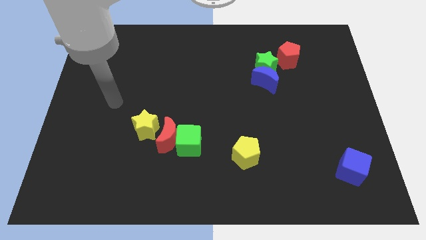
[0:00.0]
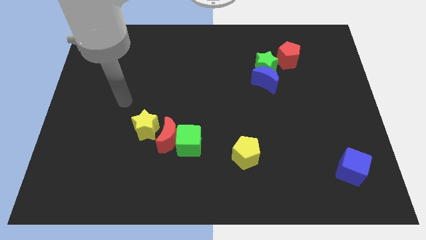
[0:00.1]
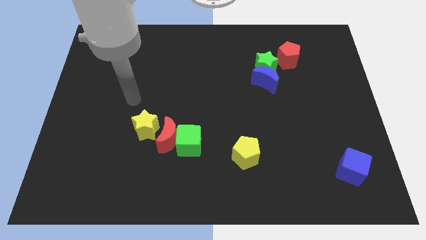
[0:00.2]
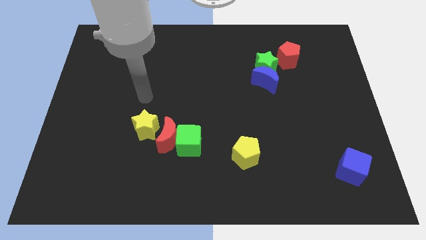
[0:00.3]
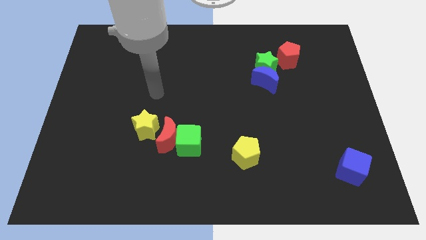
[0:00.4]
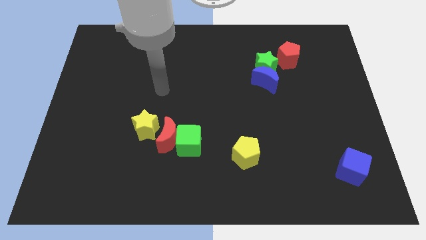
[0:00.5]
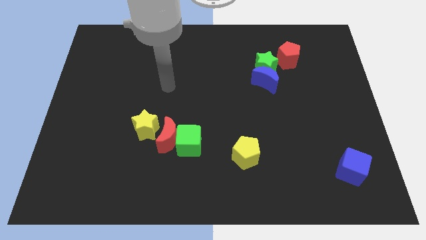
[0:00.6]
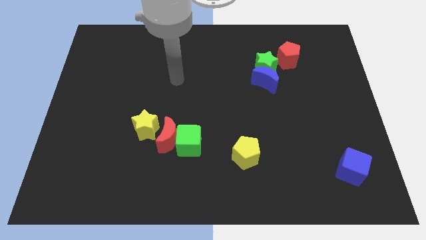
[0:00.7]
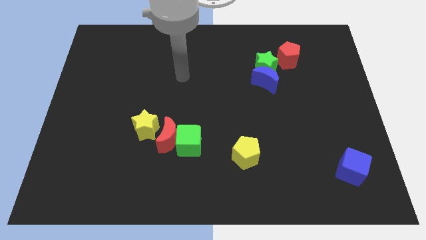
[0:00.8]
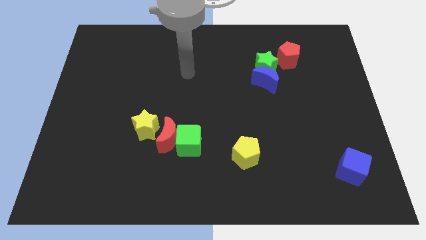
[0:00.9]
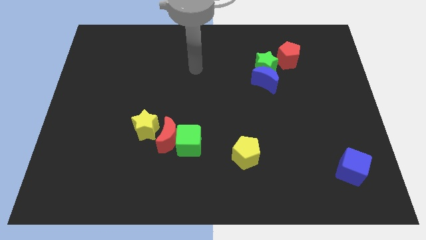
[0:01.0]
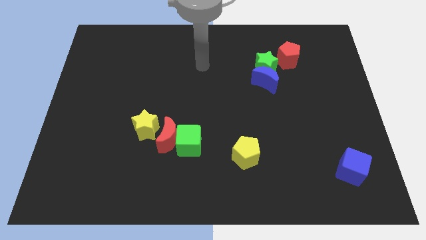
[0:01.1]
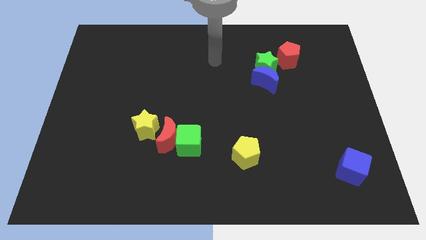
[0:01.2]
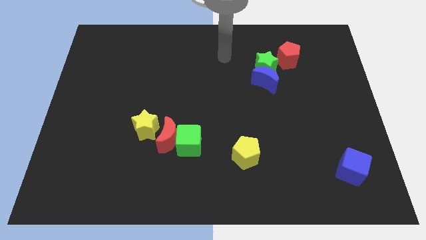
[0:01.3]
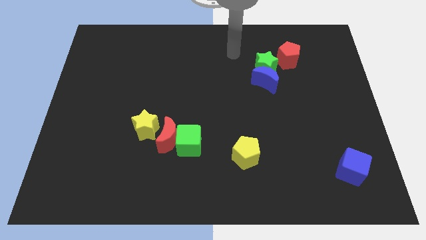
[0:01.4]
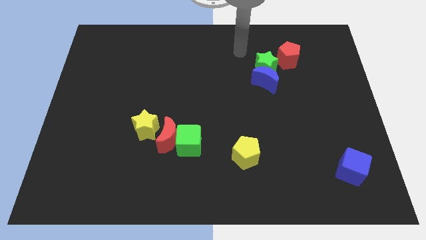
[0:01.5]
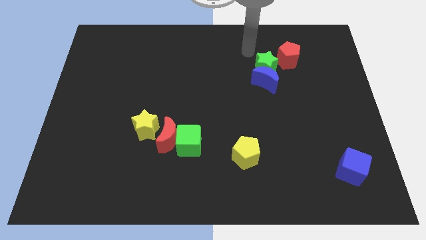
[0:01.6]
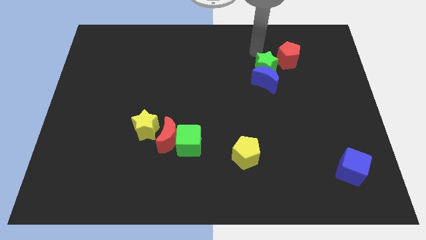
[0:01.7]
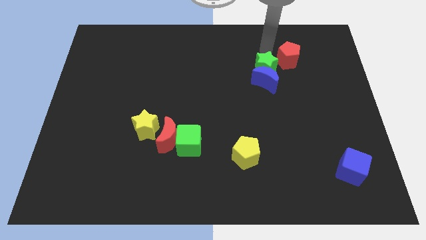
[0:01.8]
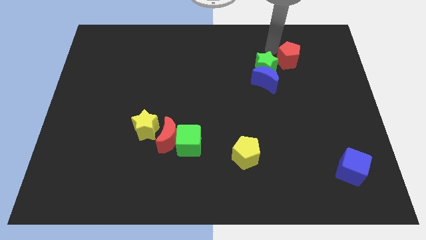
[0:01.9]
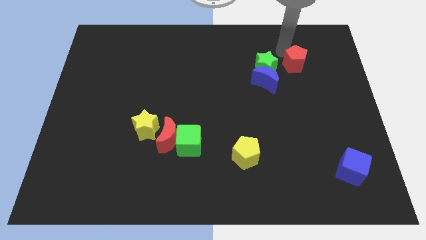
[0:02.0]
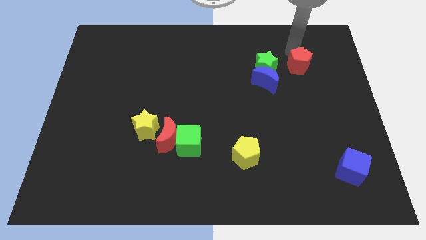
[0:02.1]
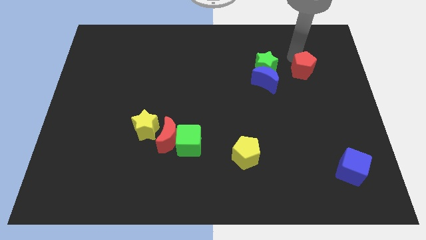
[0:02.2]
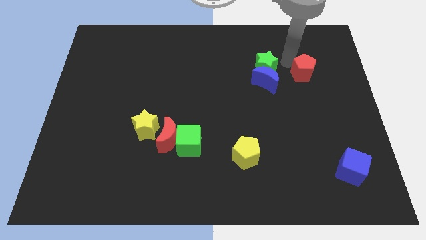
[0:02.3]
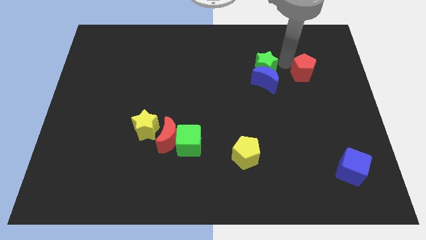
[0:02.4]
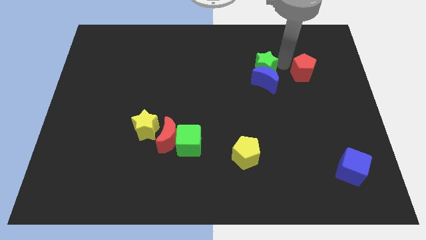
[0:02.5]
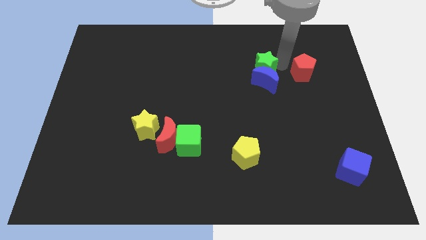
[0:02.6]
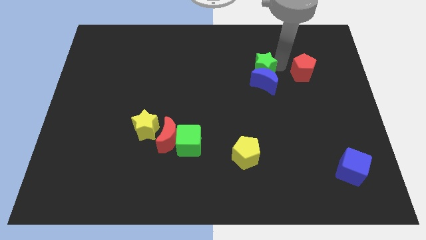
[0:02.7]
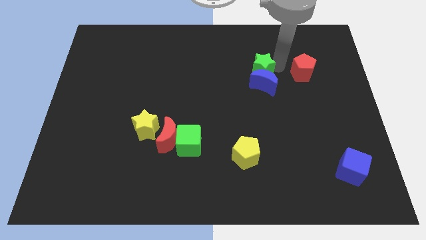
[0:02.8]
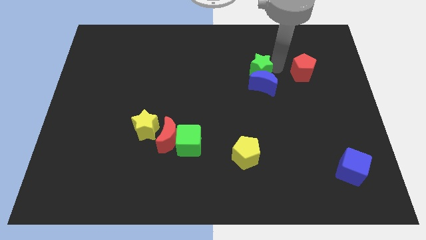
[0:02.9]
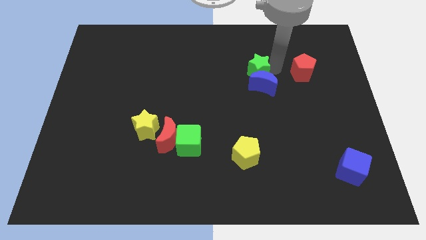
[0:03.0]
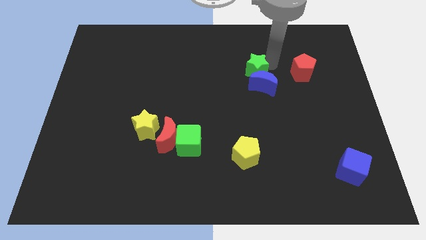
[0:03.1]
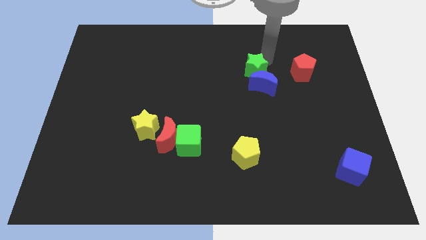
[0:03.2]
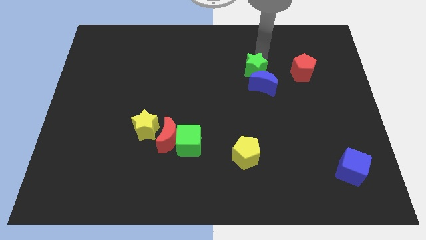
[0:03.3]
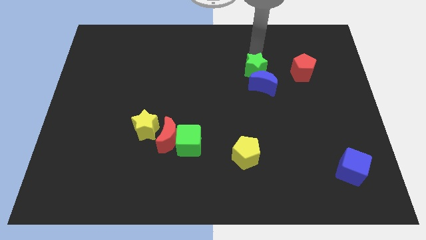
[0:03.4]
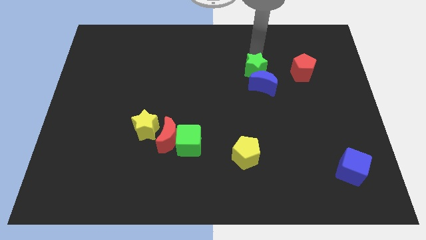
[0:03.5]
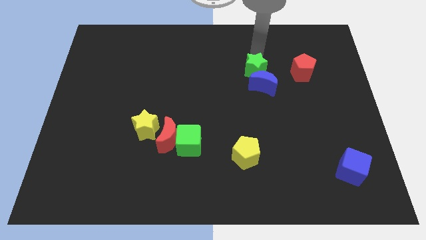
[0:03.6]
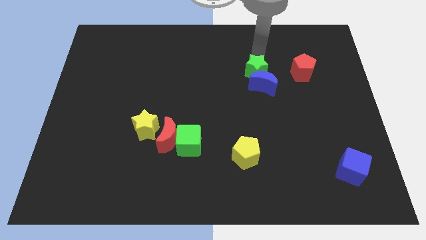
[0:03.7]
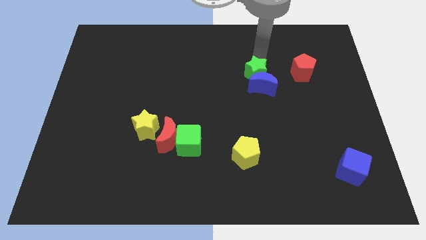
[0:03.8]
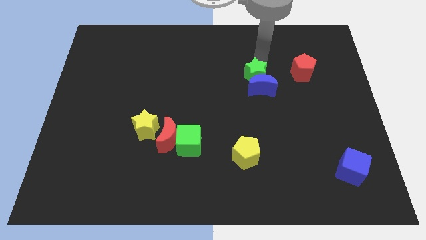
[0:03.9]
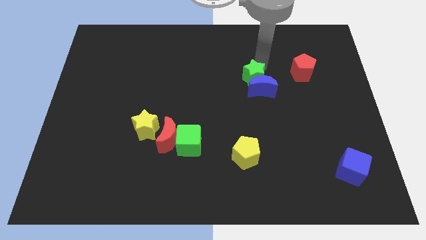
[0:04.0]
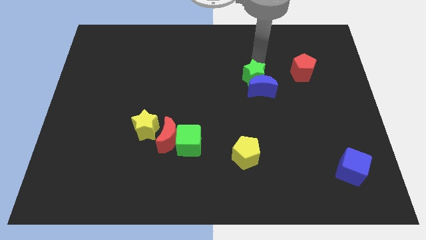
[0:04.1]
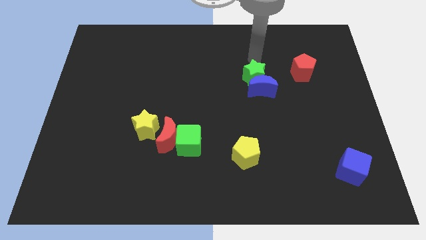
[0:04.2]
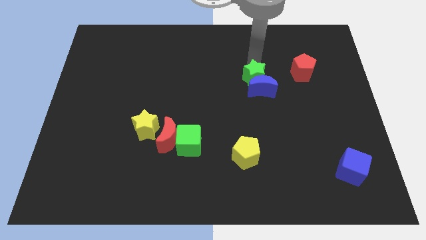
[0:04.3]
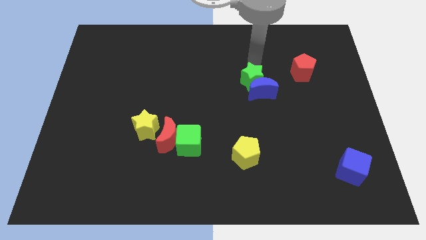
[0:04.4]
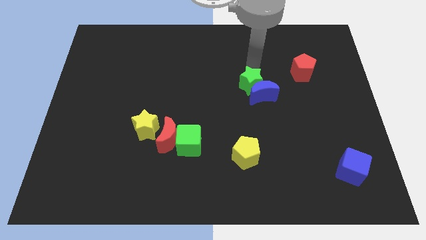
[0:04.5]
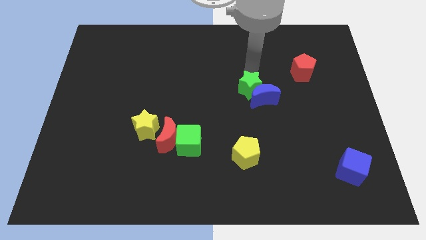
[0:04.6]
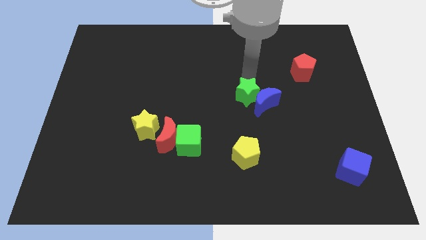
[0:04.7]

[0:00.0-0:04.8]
slightly push the green star down

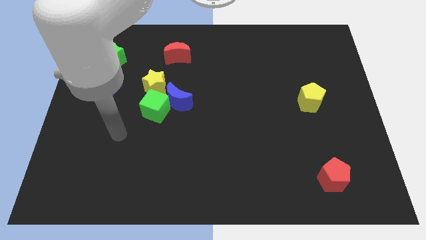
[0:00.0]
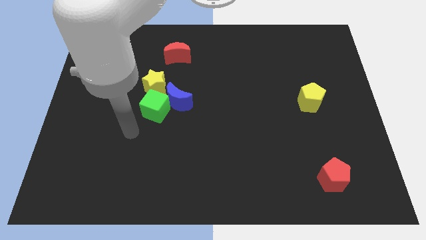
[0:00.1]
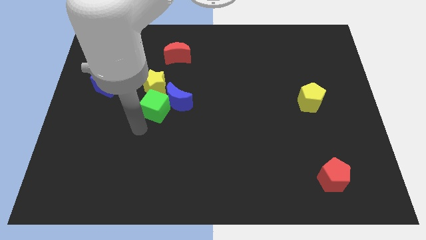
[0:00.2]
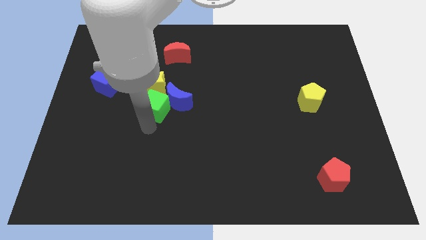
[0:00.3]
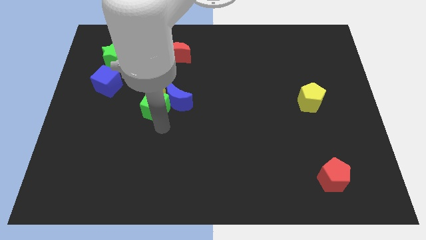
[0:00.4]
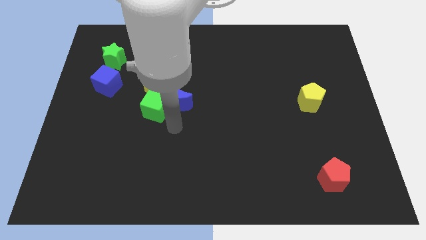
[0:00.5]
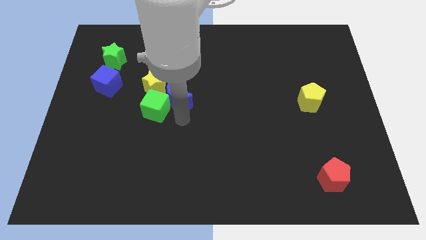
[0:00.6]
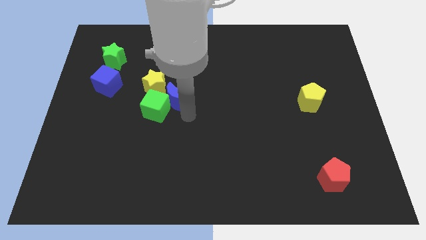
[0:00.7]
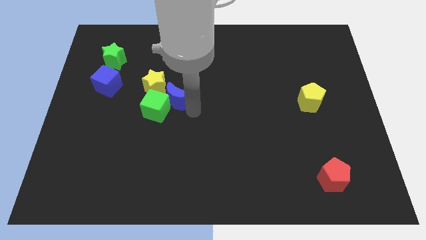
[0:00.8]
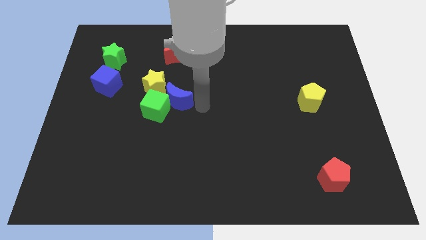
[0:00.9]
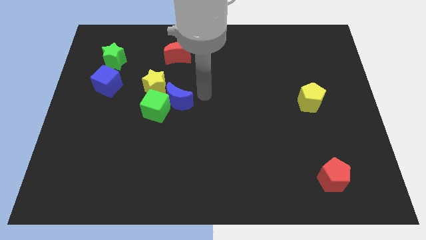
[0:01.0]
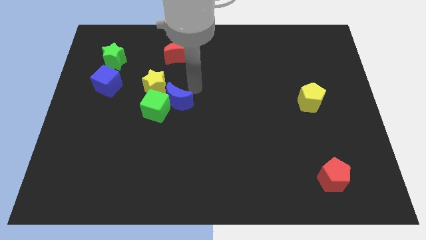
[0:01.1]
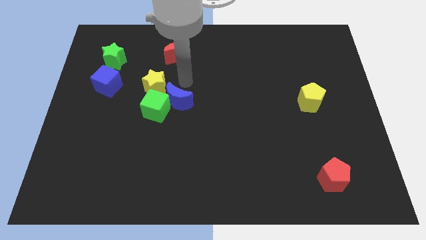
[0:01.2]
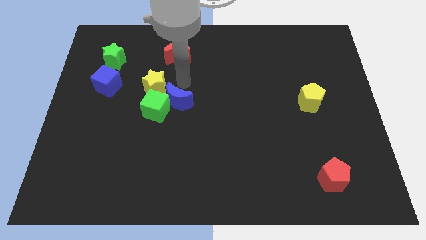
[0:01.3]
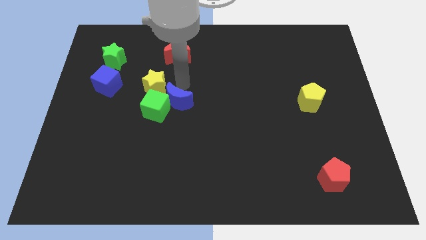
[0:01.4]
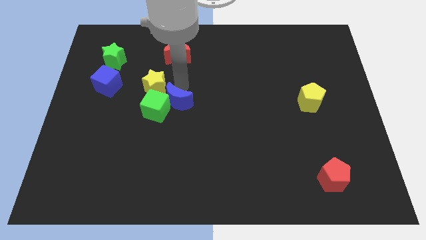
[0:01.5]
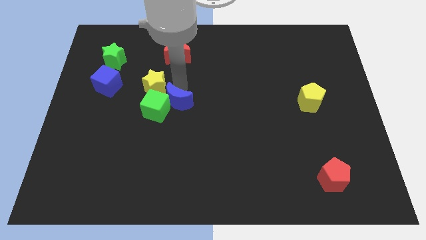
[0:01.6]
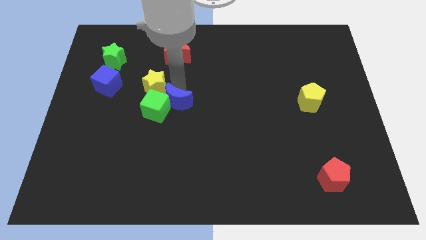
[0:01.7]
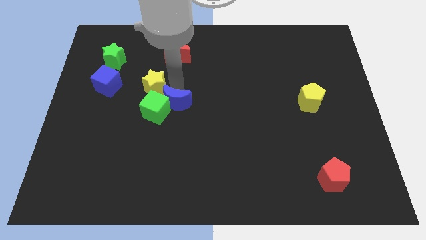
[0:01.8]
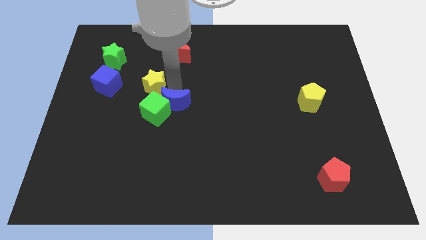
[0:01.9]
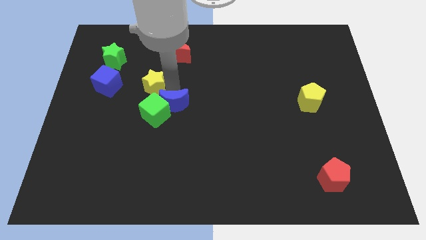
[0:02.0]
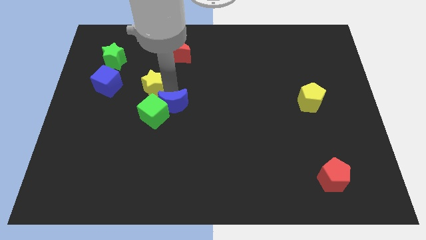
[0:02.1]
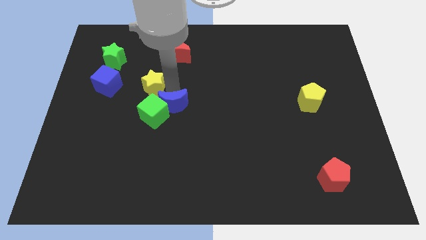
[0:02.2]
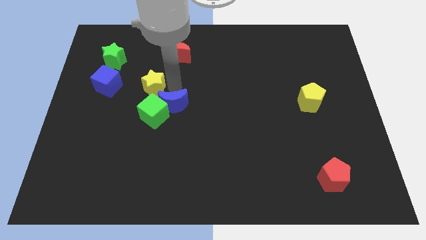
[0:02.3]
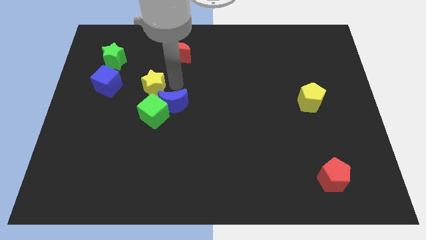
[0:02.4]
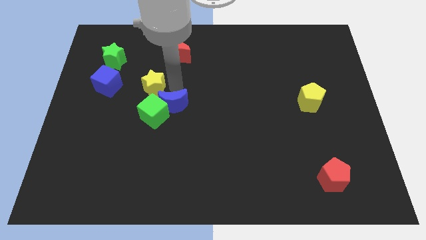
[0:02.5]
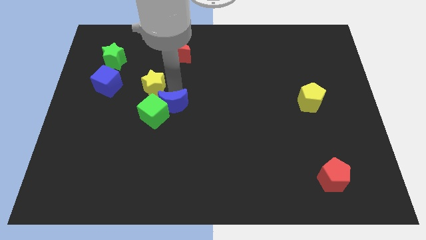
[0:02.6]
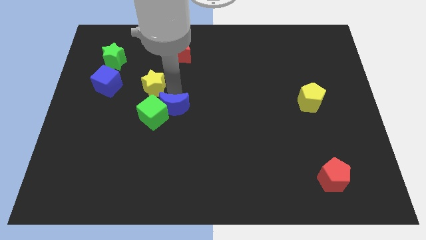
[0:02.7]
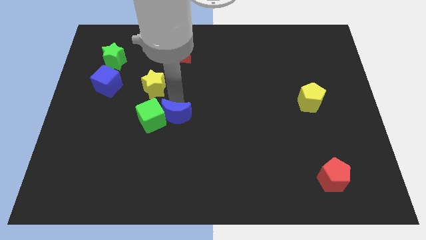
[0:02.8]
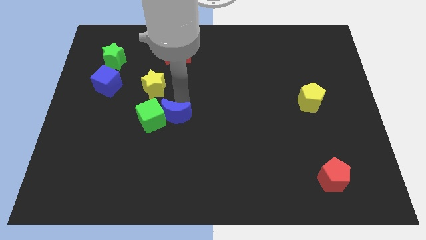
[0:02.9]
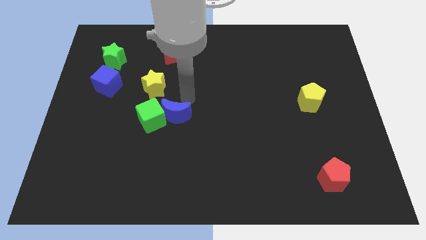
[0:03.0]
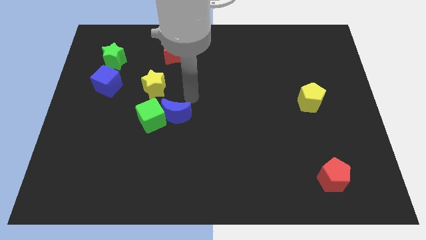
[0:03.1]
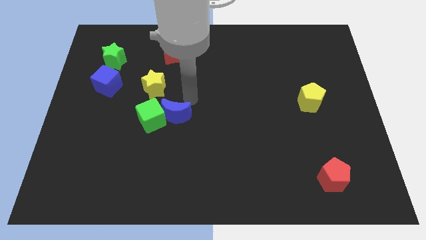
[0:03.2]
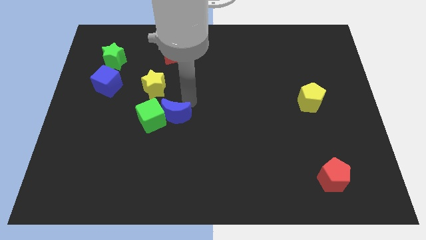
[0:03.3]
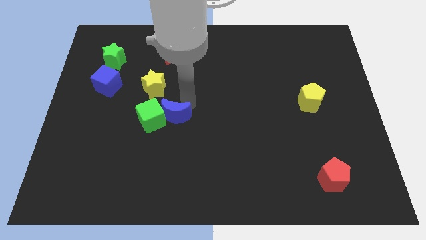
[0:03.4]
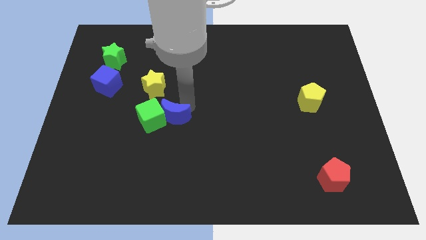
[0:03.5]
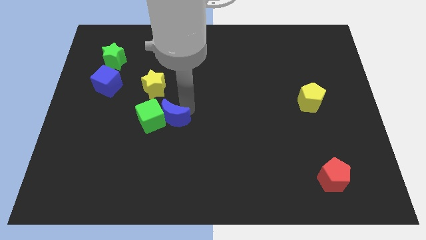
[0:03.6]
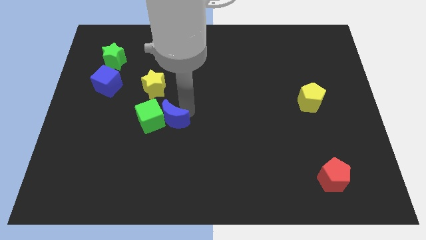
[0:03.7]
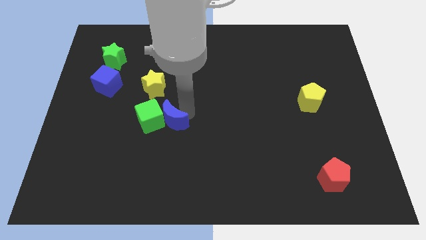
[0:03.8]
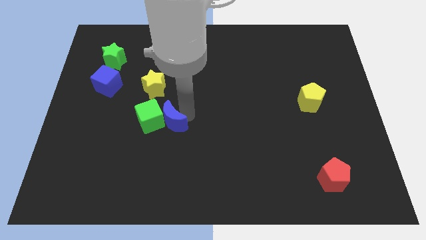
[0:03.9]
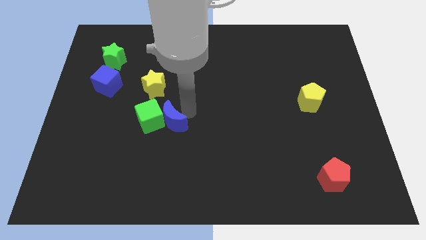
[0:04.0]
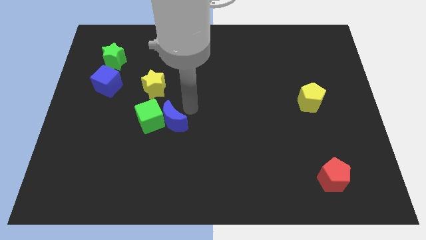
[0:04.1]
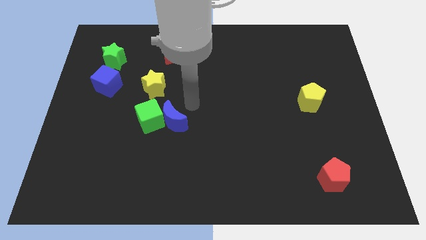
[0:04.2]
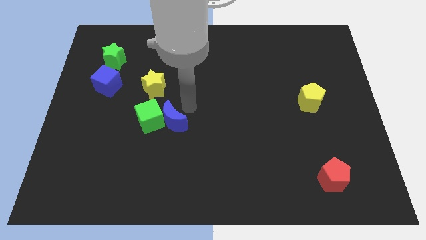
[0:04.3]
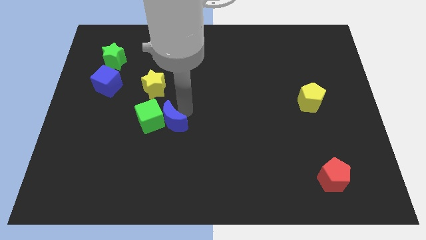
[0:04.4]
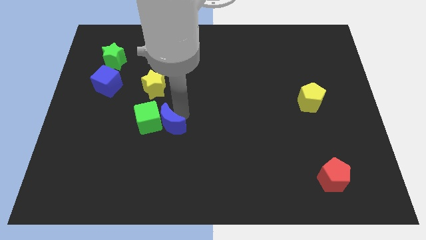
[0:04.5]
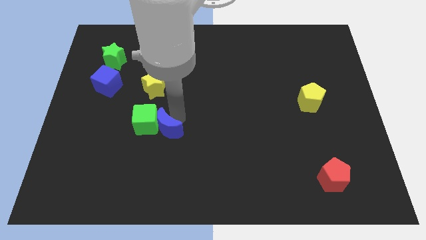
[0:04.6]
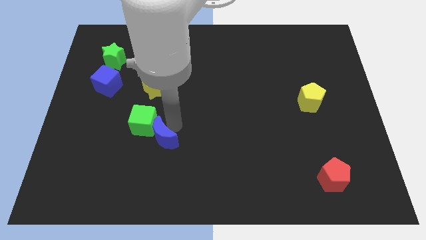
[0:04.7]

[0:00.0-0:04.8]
push the blue moon down and left diagonally somewhat
